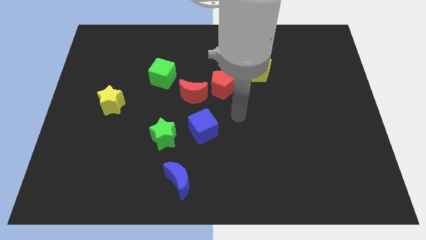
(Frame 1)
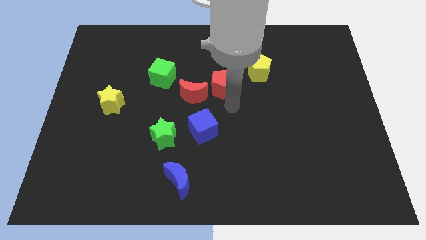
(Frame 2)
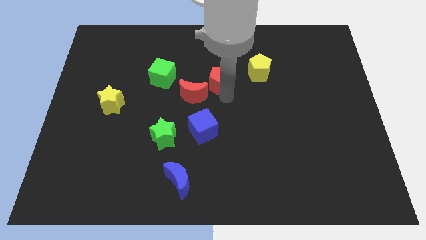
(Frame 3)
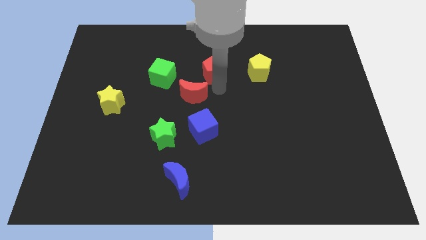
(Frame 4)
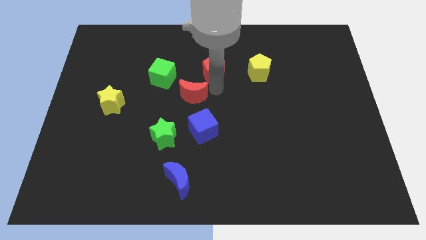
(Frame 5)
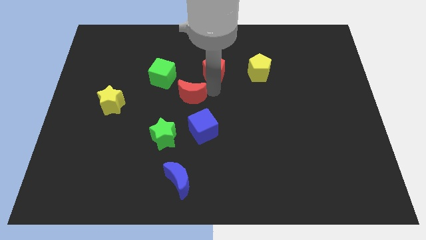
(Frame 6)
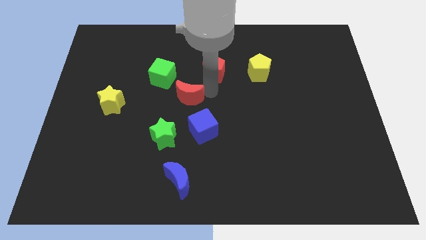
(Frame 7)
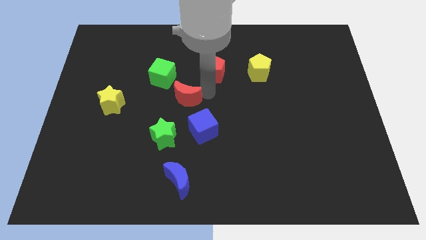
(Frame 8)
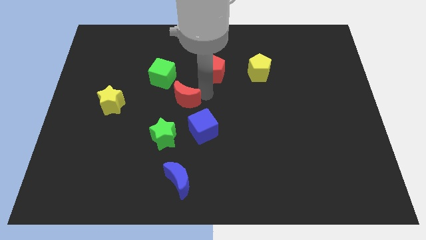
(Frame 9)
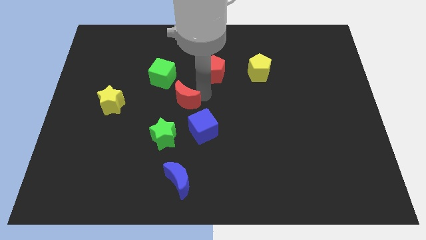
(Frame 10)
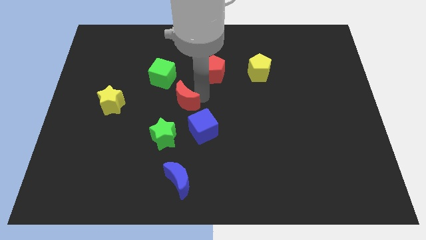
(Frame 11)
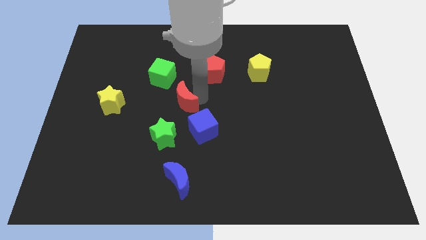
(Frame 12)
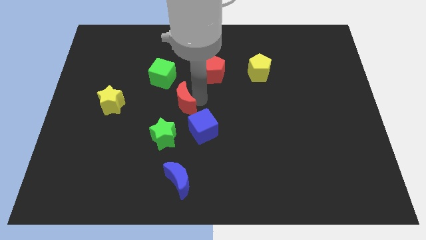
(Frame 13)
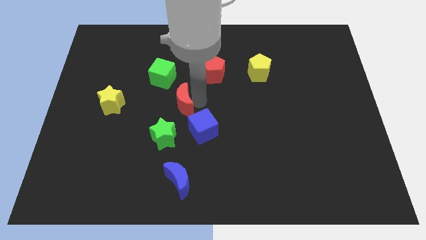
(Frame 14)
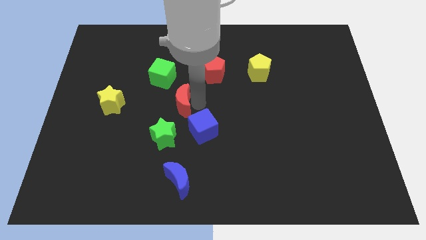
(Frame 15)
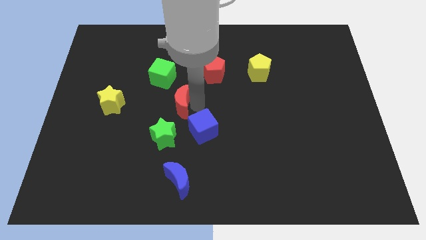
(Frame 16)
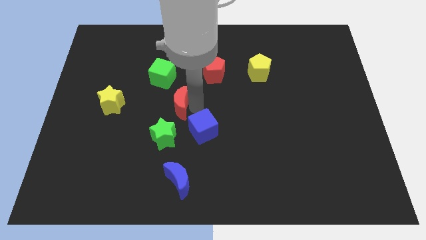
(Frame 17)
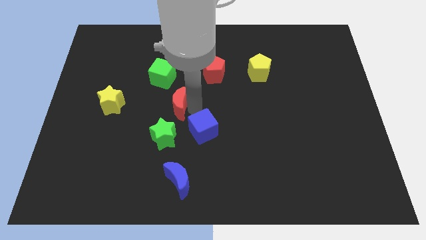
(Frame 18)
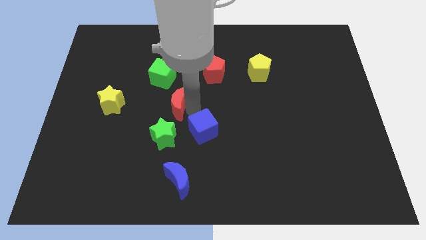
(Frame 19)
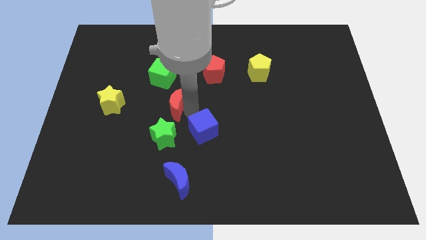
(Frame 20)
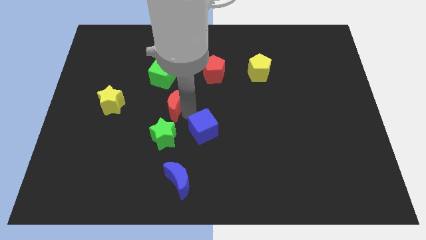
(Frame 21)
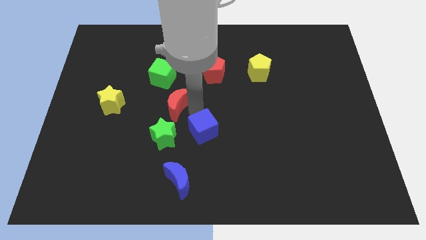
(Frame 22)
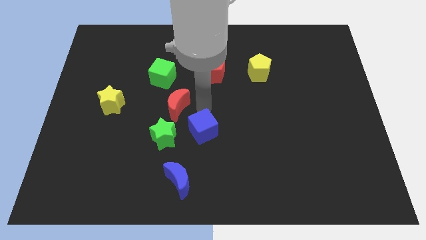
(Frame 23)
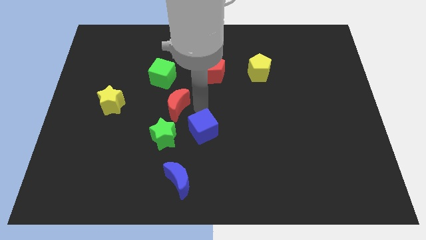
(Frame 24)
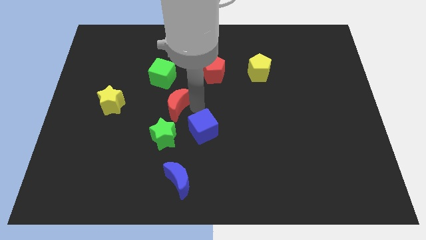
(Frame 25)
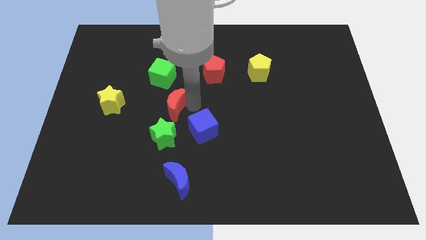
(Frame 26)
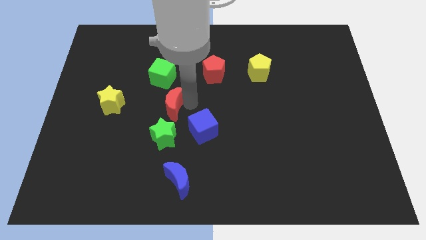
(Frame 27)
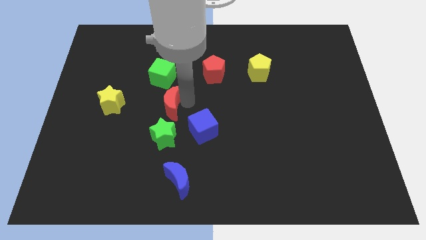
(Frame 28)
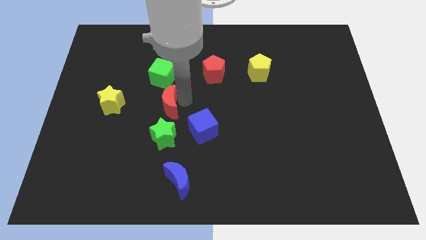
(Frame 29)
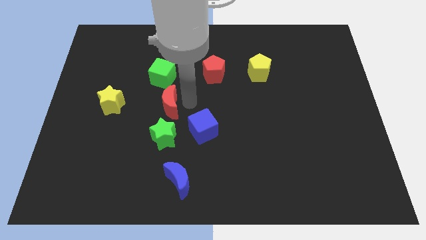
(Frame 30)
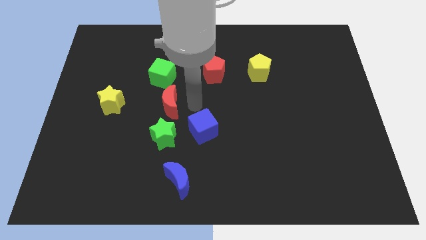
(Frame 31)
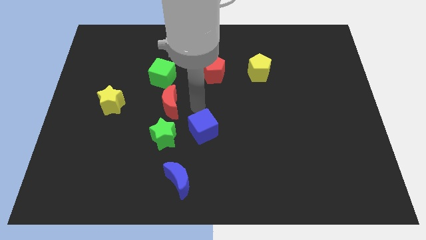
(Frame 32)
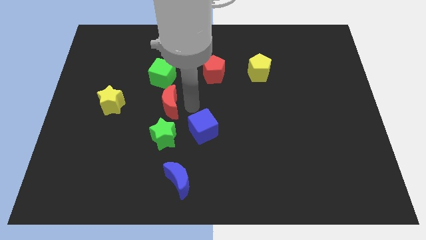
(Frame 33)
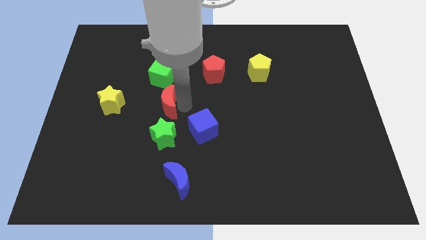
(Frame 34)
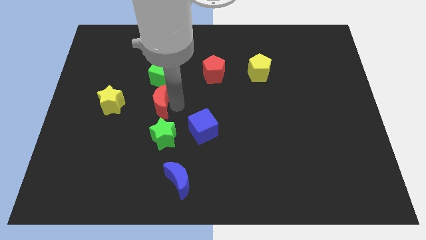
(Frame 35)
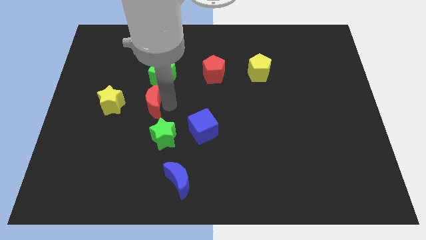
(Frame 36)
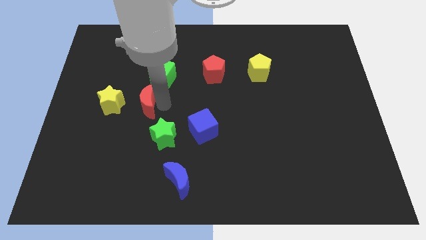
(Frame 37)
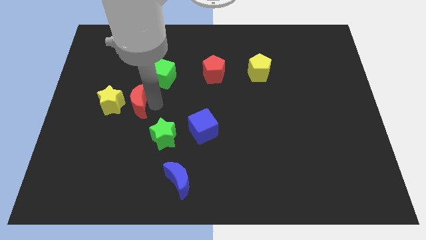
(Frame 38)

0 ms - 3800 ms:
move the red moon close to the yellow star

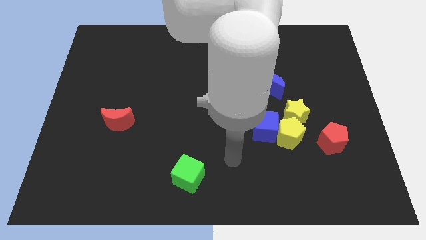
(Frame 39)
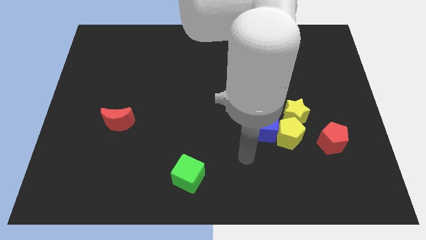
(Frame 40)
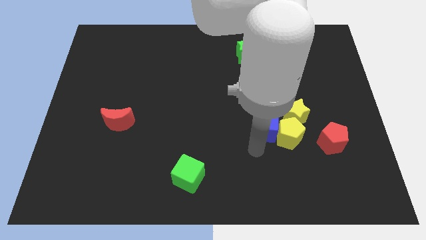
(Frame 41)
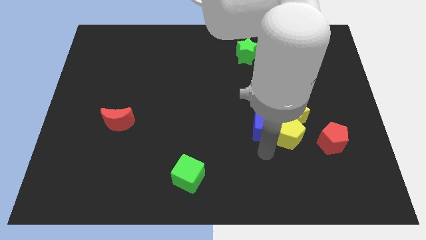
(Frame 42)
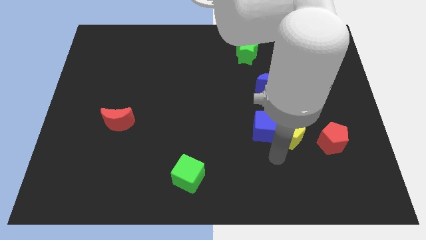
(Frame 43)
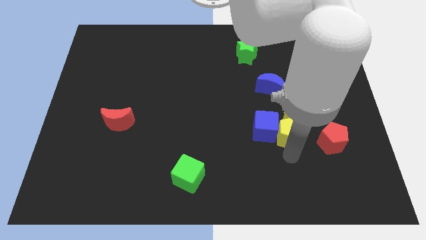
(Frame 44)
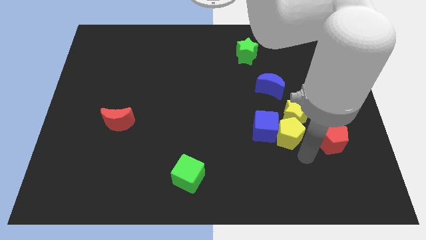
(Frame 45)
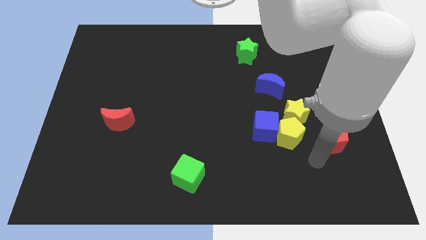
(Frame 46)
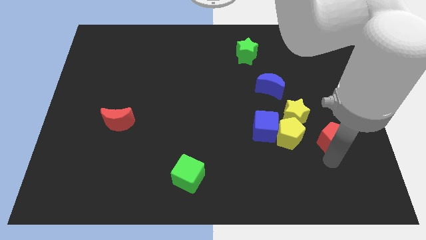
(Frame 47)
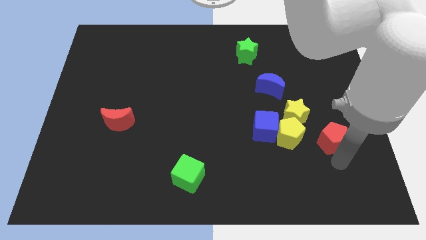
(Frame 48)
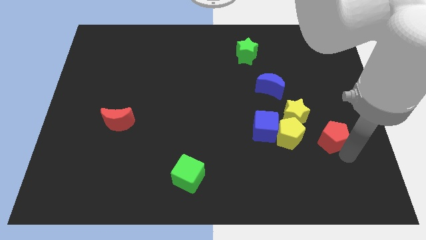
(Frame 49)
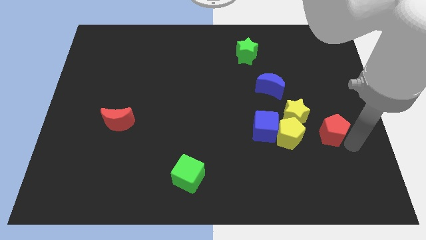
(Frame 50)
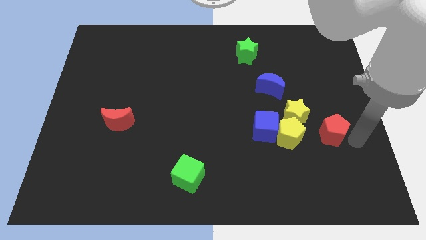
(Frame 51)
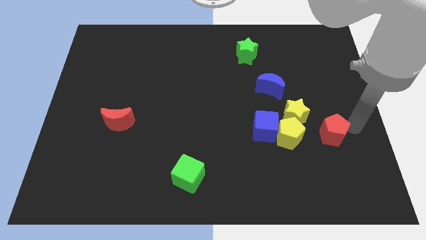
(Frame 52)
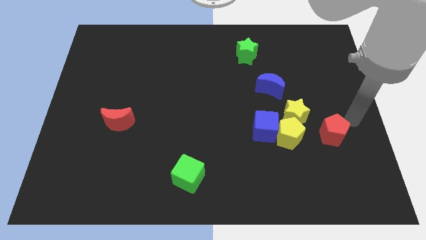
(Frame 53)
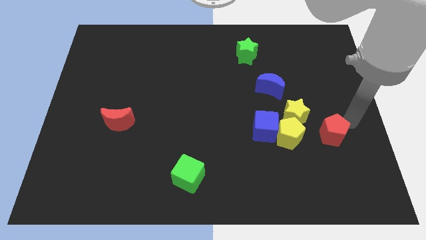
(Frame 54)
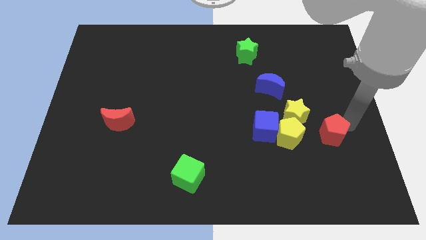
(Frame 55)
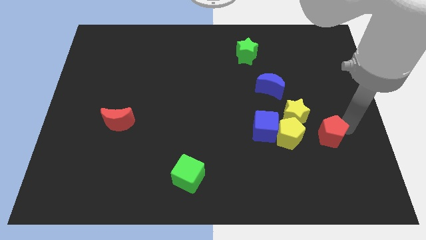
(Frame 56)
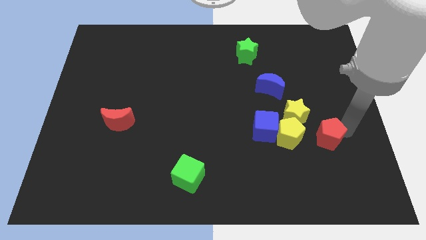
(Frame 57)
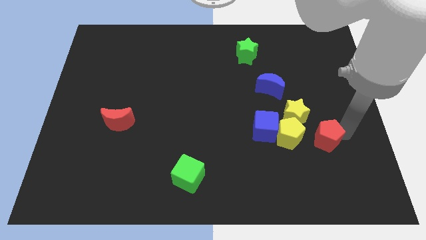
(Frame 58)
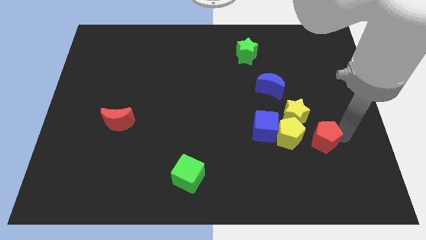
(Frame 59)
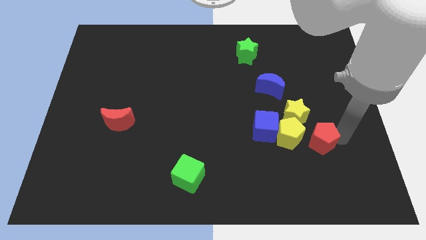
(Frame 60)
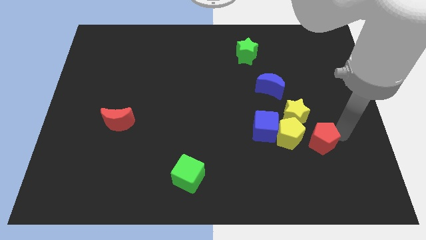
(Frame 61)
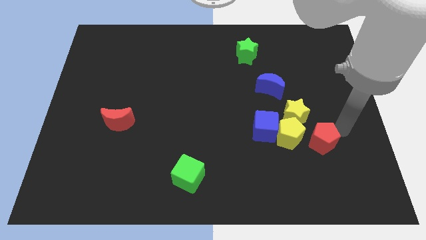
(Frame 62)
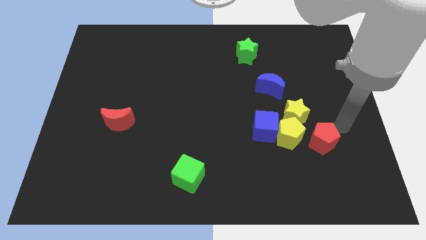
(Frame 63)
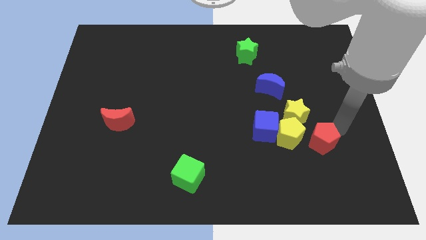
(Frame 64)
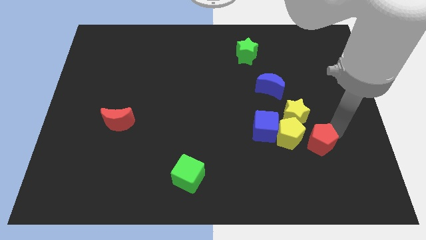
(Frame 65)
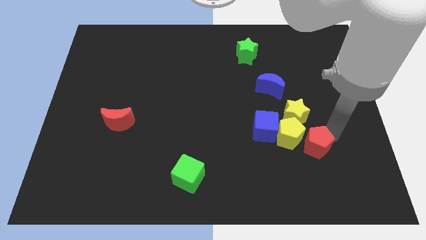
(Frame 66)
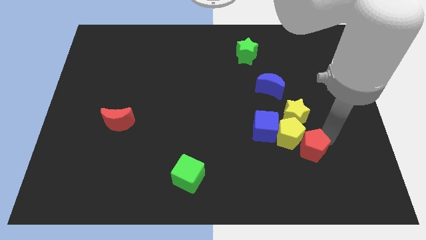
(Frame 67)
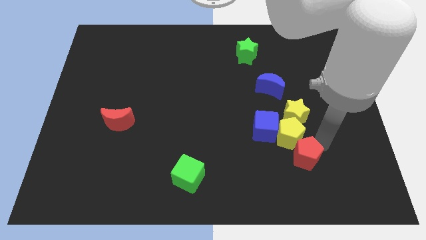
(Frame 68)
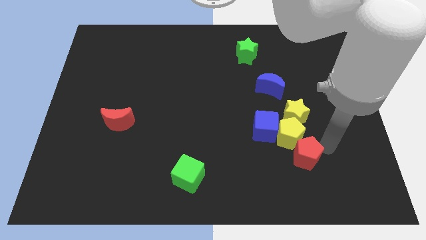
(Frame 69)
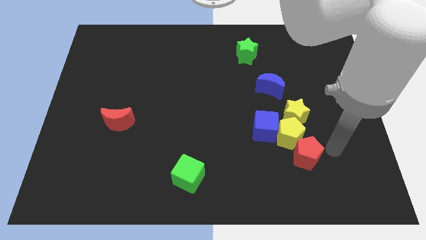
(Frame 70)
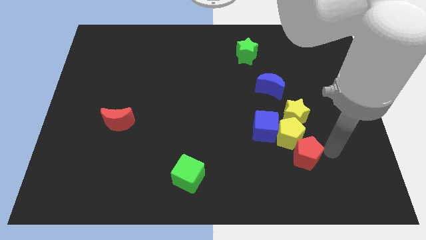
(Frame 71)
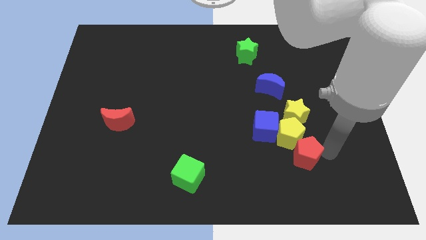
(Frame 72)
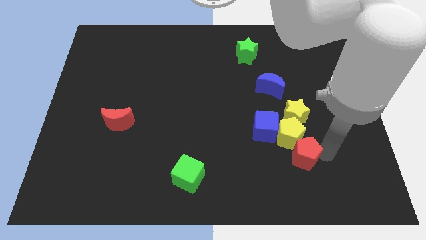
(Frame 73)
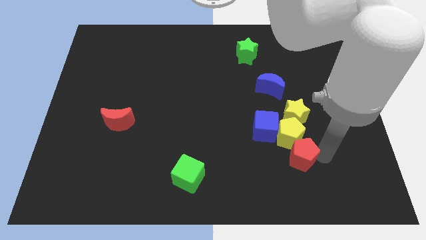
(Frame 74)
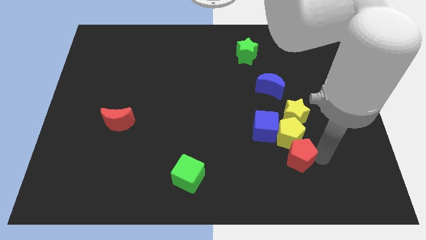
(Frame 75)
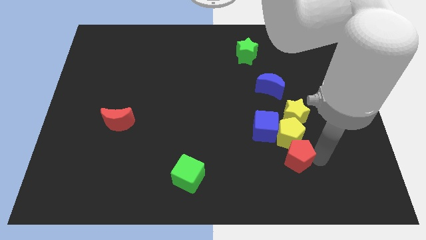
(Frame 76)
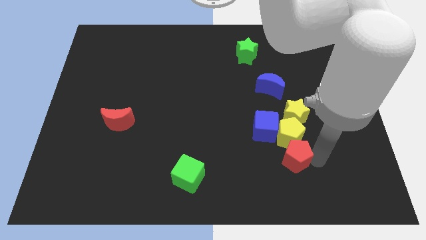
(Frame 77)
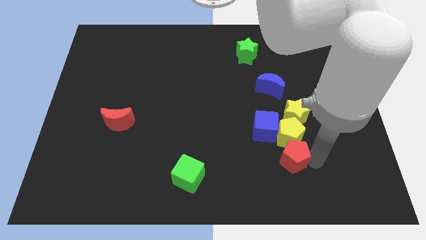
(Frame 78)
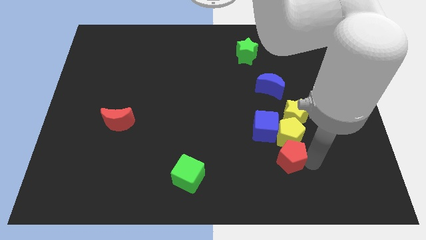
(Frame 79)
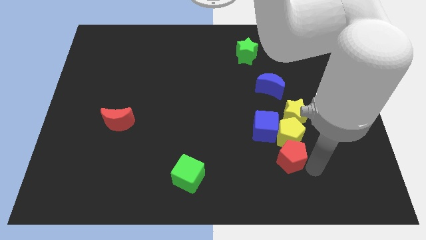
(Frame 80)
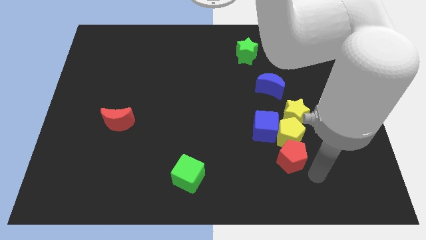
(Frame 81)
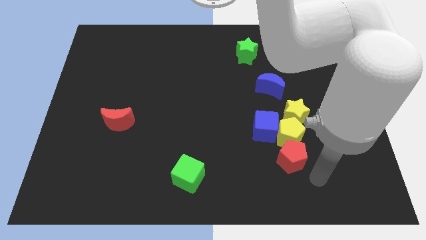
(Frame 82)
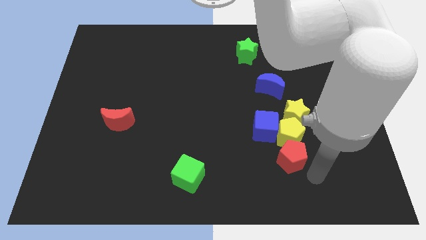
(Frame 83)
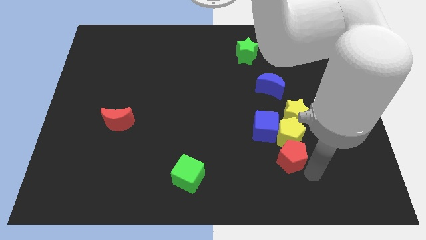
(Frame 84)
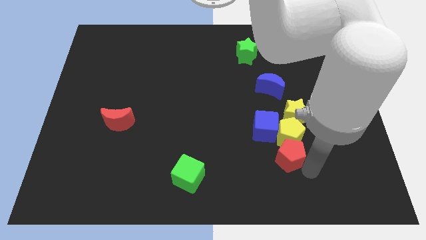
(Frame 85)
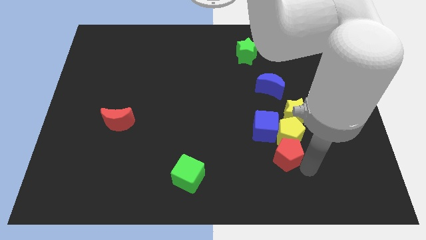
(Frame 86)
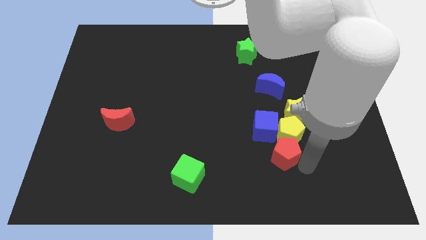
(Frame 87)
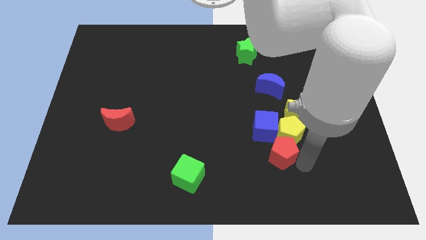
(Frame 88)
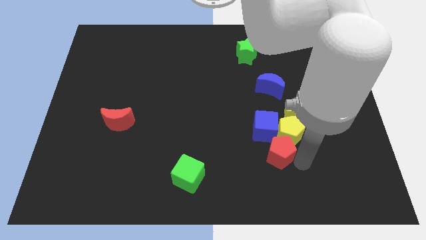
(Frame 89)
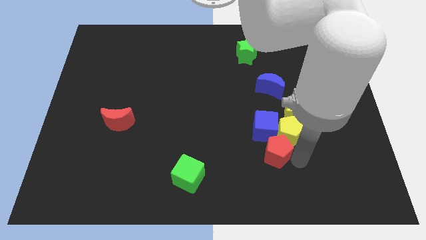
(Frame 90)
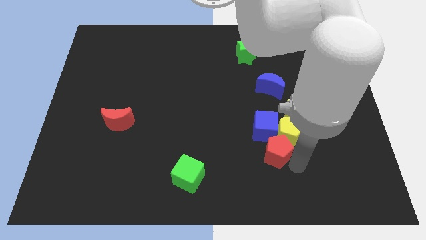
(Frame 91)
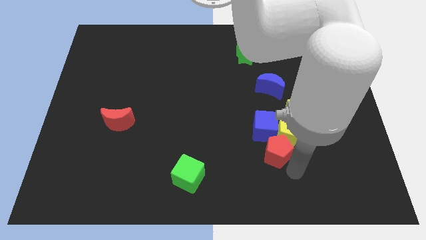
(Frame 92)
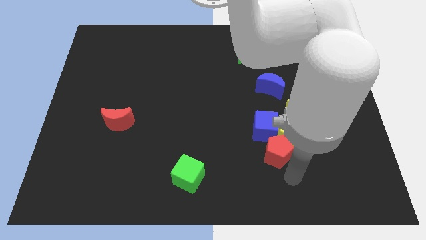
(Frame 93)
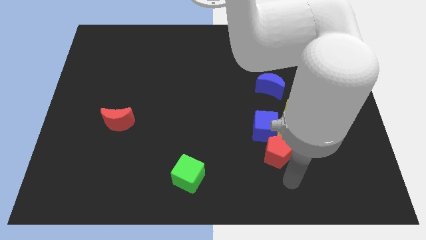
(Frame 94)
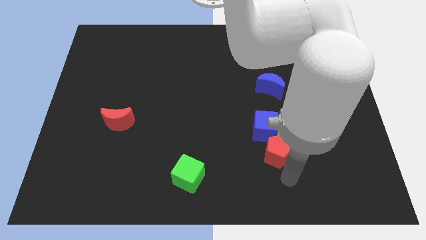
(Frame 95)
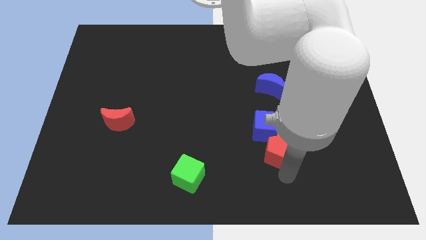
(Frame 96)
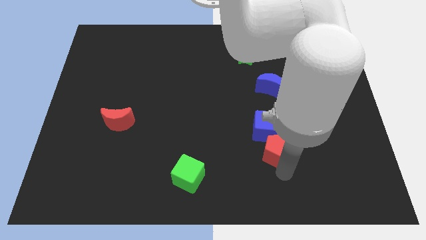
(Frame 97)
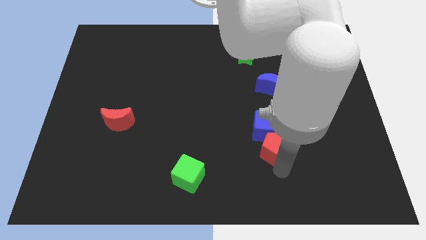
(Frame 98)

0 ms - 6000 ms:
put the red pentagon next to the blue cube
